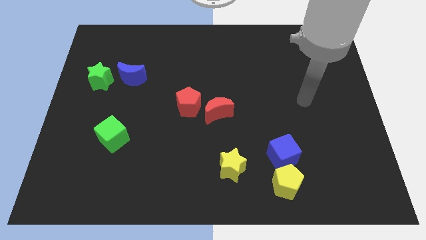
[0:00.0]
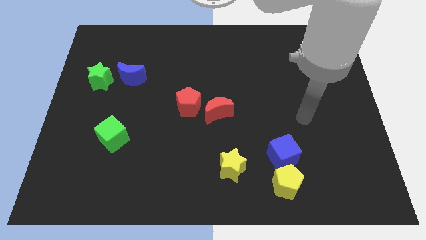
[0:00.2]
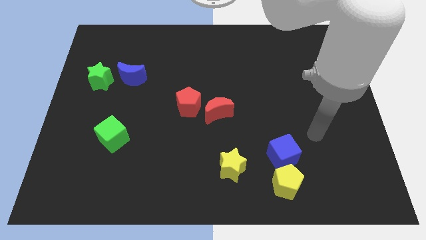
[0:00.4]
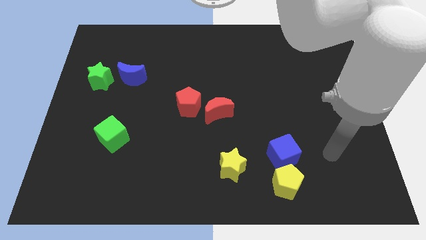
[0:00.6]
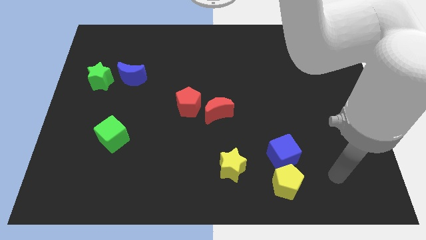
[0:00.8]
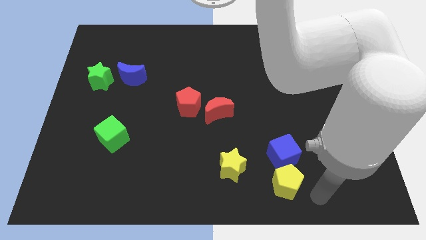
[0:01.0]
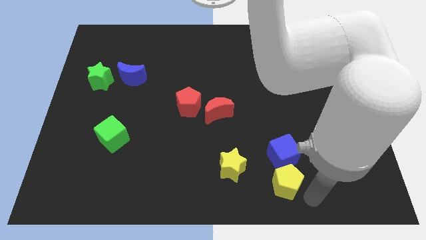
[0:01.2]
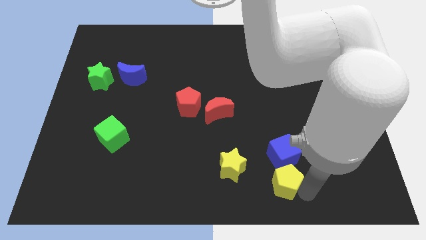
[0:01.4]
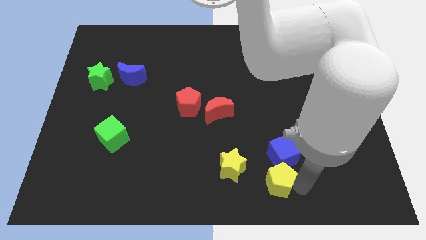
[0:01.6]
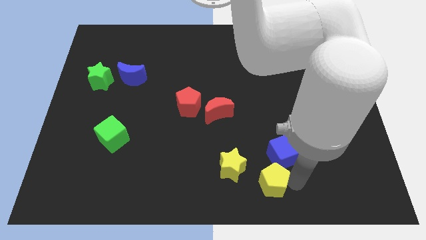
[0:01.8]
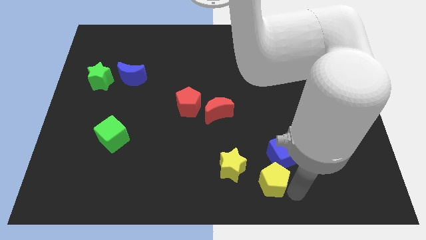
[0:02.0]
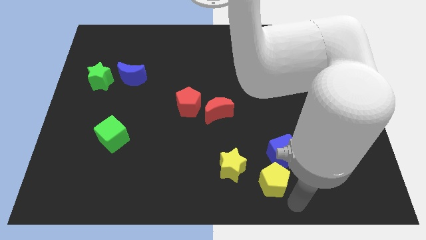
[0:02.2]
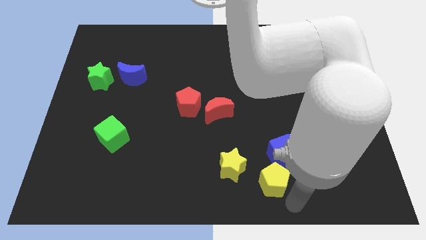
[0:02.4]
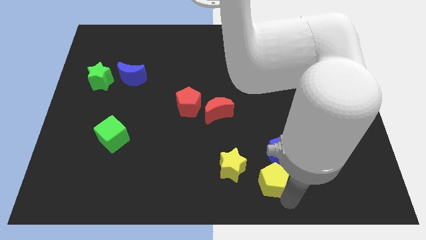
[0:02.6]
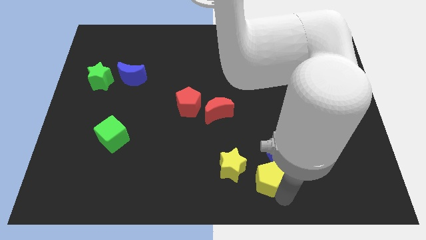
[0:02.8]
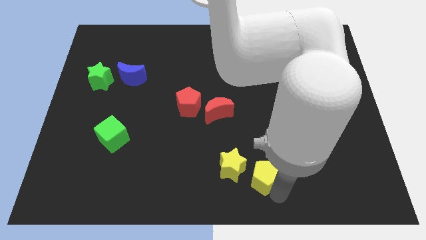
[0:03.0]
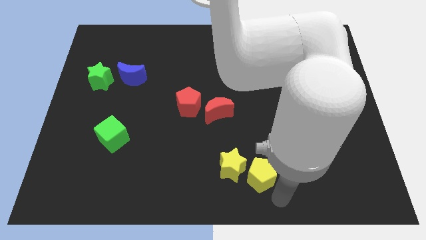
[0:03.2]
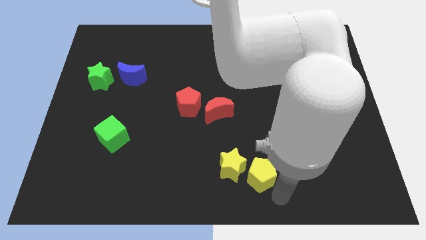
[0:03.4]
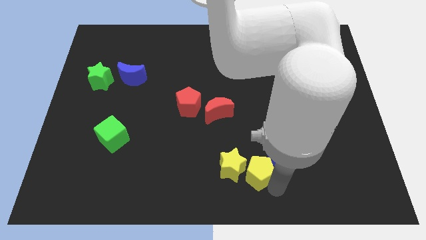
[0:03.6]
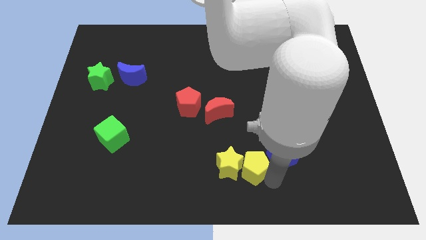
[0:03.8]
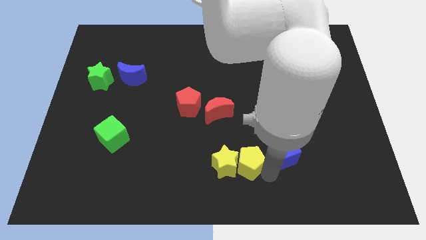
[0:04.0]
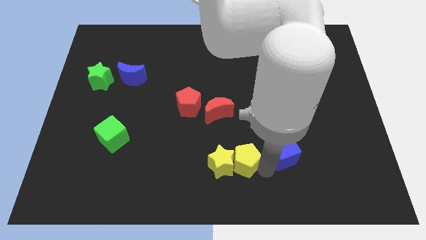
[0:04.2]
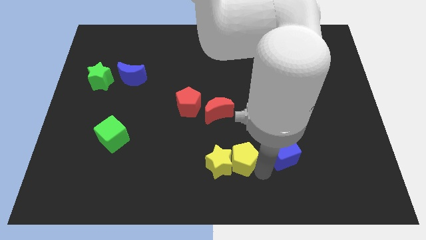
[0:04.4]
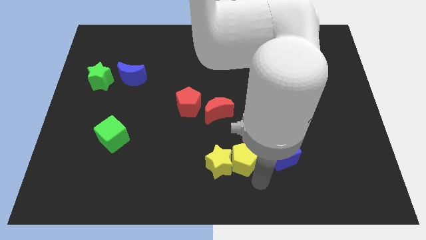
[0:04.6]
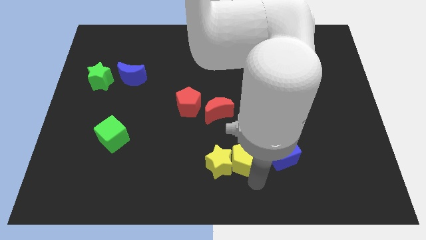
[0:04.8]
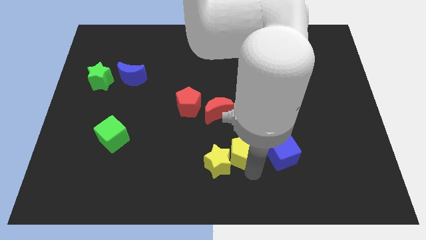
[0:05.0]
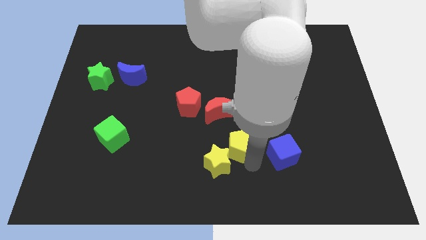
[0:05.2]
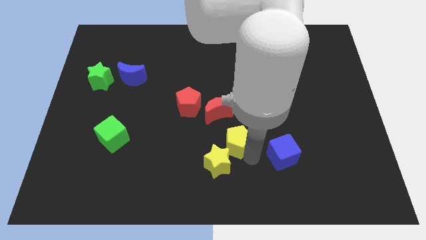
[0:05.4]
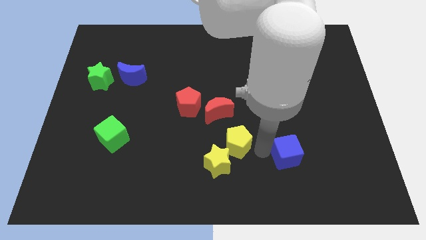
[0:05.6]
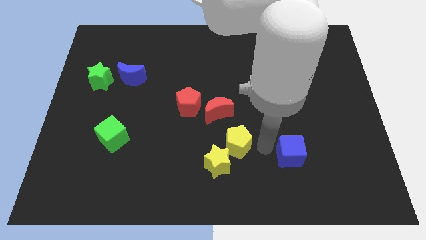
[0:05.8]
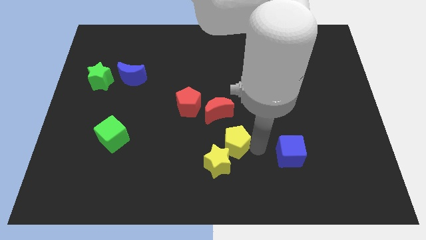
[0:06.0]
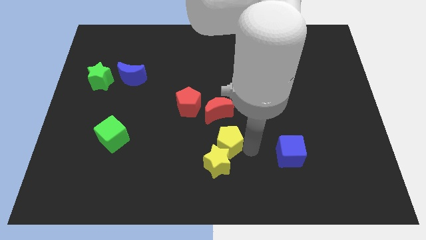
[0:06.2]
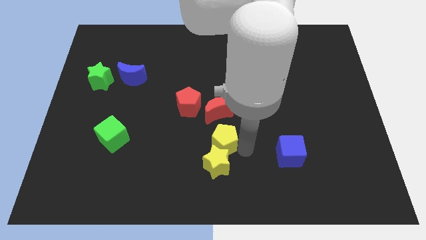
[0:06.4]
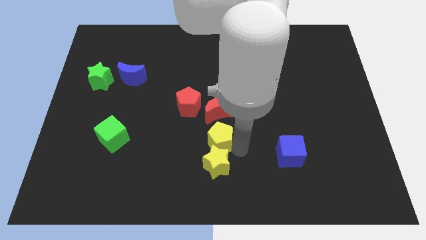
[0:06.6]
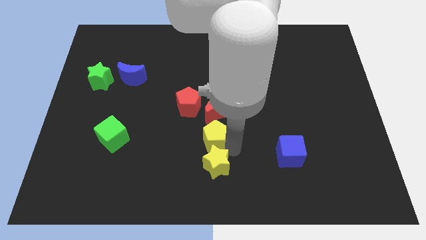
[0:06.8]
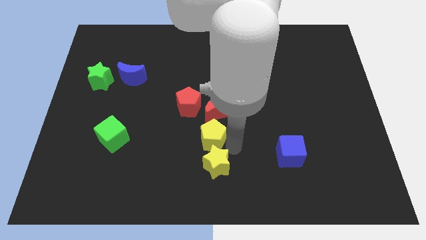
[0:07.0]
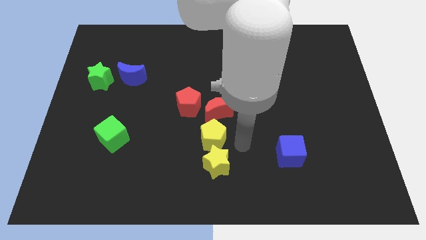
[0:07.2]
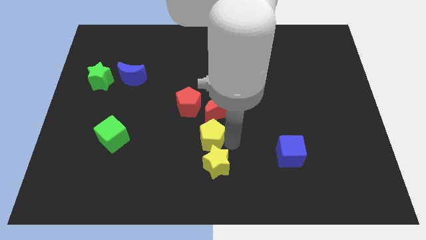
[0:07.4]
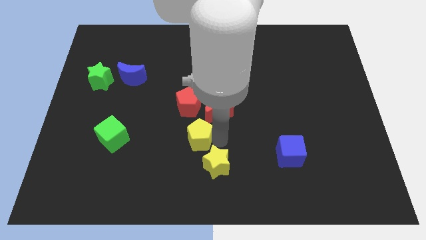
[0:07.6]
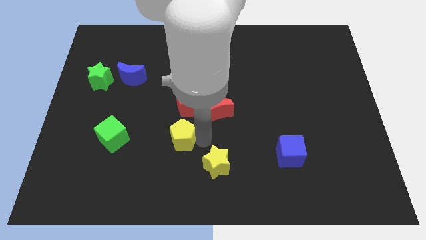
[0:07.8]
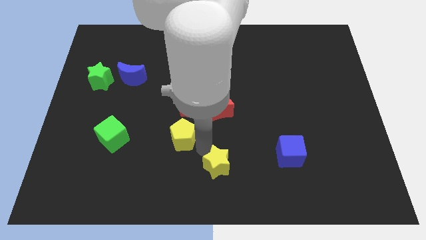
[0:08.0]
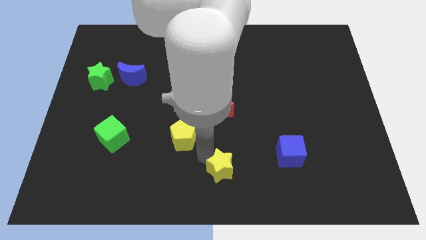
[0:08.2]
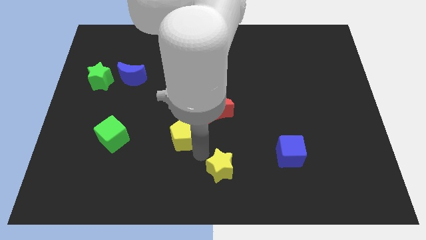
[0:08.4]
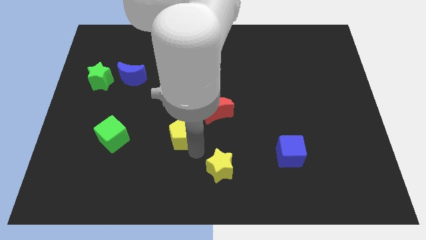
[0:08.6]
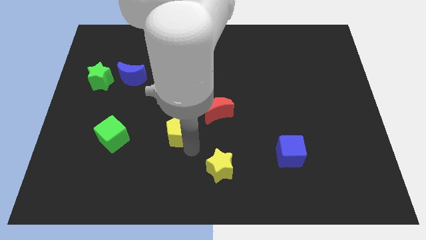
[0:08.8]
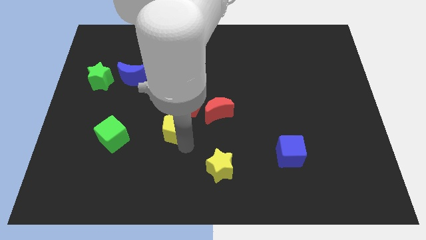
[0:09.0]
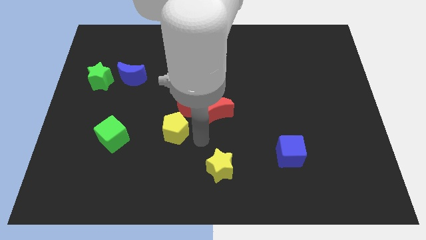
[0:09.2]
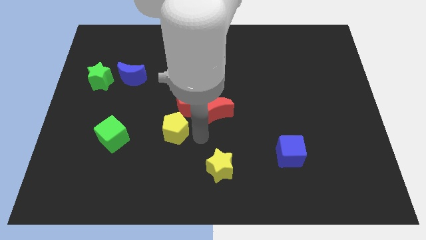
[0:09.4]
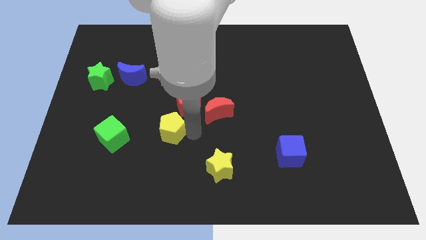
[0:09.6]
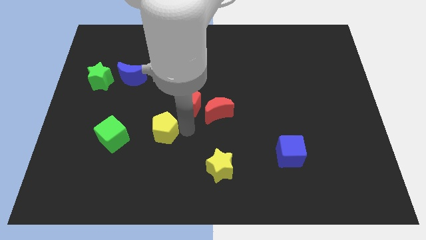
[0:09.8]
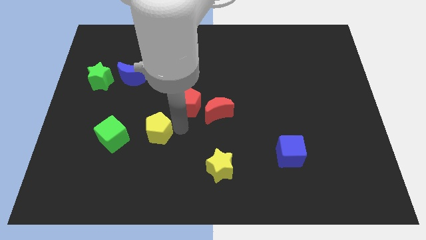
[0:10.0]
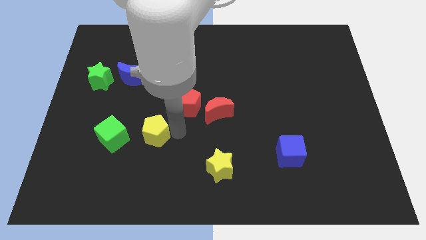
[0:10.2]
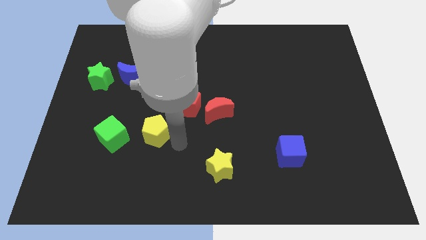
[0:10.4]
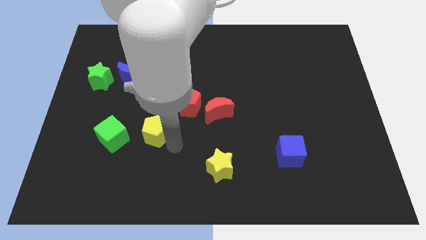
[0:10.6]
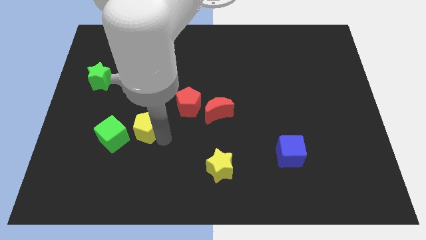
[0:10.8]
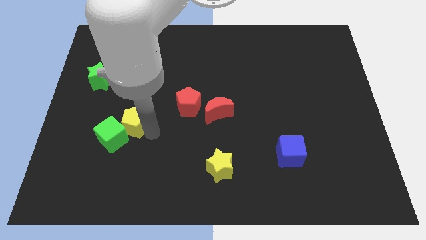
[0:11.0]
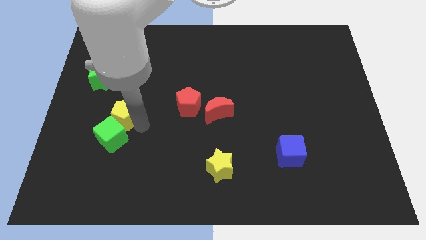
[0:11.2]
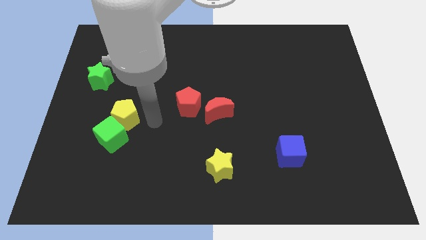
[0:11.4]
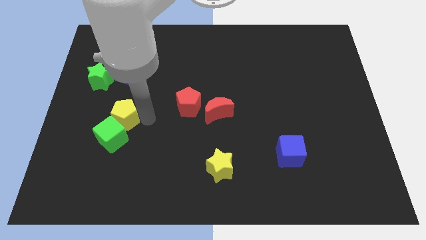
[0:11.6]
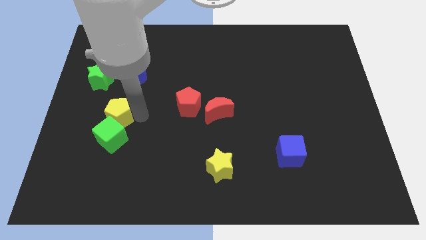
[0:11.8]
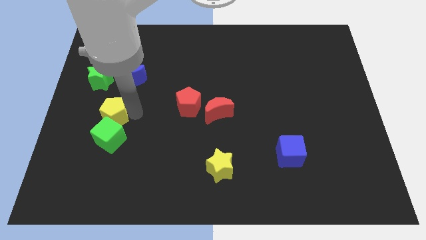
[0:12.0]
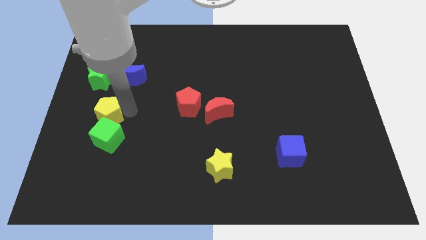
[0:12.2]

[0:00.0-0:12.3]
put the yellow pentagon below the green star

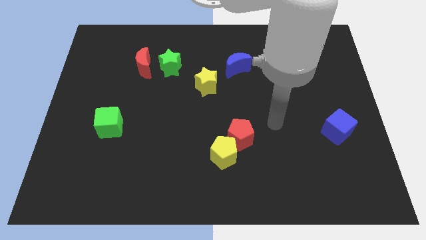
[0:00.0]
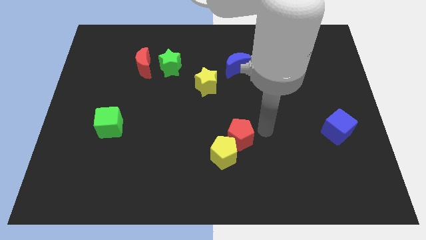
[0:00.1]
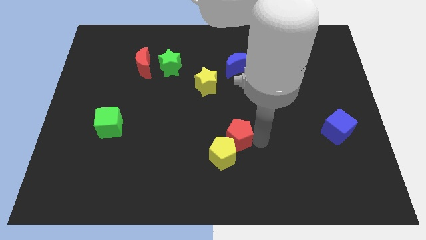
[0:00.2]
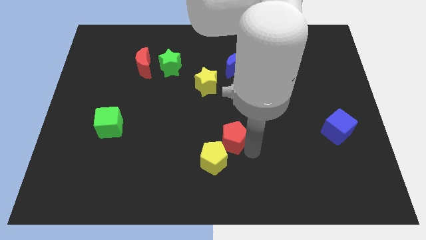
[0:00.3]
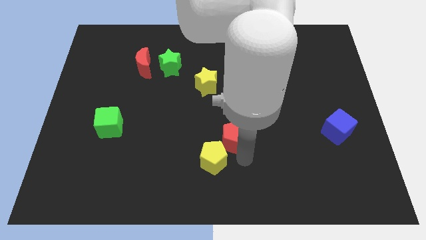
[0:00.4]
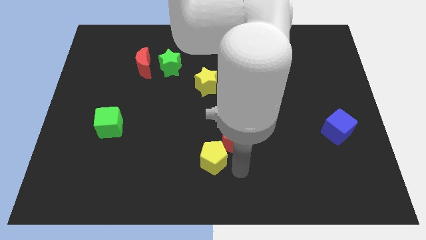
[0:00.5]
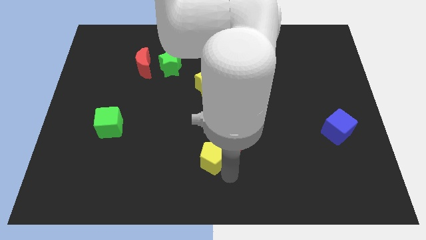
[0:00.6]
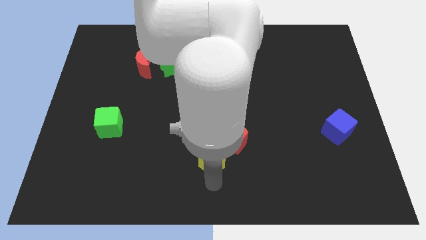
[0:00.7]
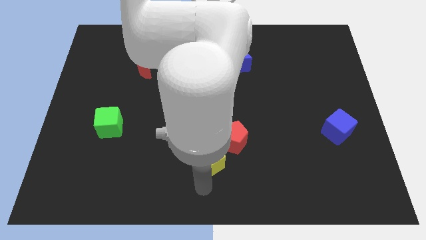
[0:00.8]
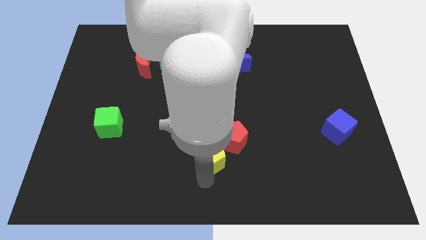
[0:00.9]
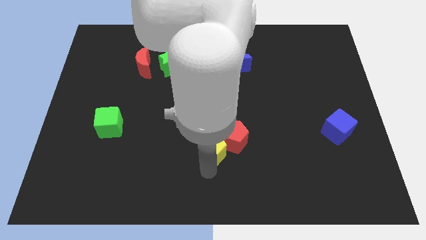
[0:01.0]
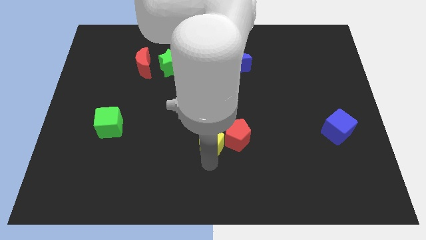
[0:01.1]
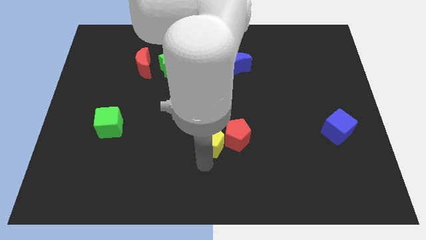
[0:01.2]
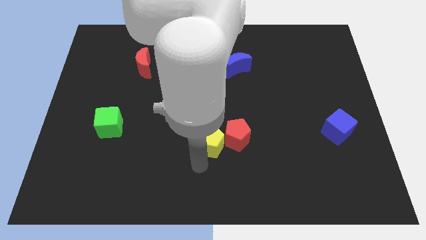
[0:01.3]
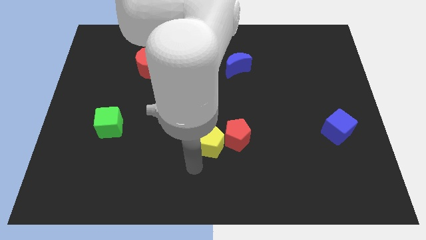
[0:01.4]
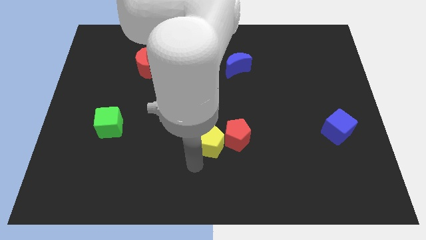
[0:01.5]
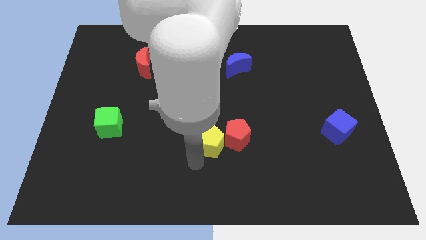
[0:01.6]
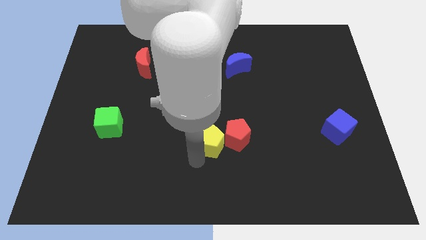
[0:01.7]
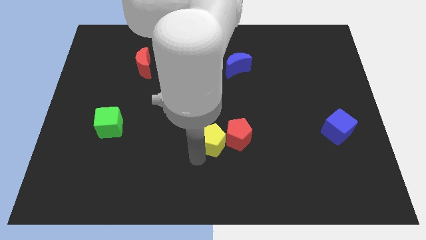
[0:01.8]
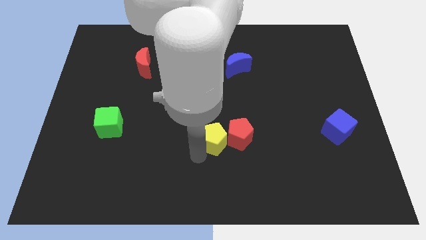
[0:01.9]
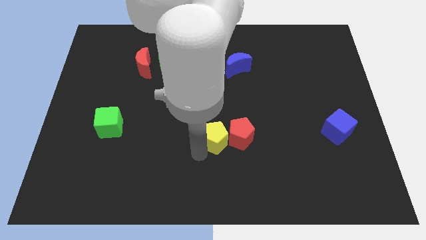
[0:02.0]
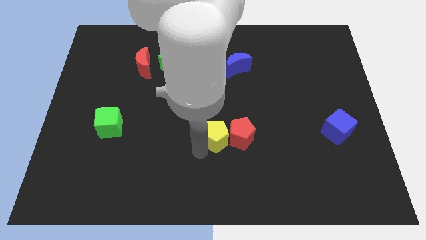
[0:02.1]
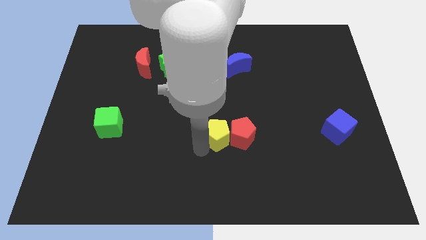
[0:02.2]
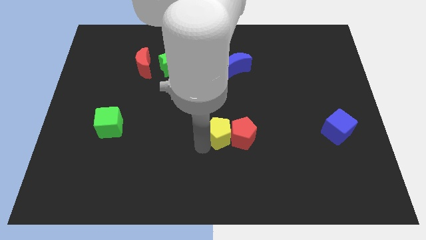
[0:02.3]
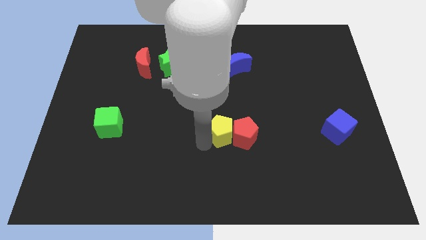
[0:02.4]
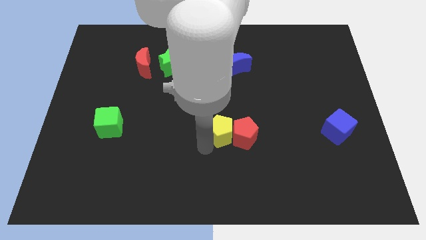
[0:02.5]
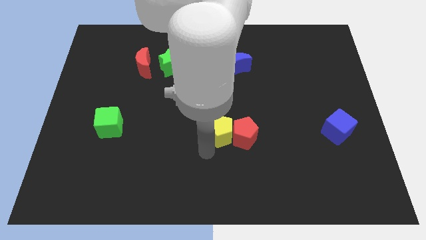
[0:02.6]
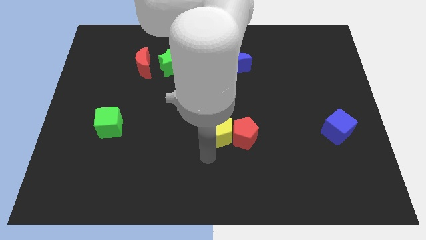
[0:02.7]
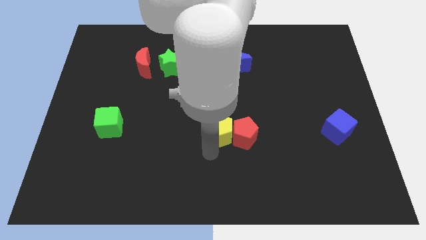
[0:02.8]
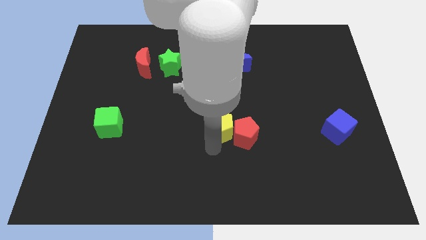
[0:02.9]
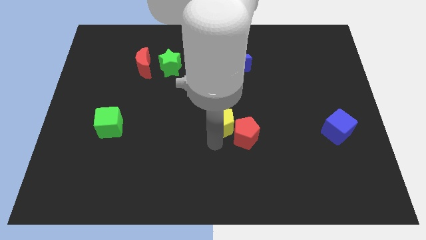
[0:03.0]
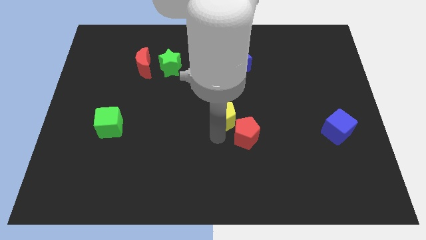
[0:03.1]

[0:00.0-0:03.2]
move the yellow pentagon diagonally down and to the right of the yellow star
